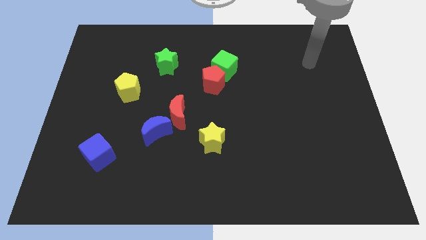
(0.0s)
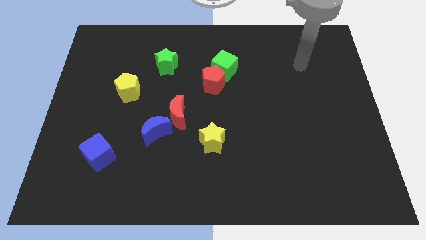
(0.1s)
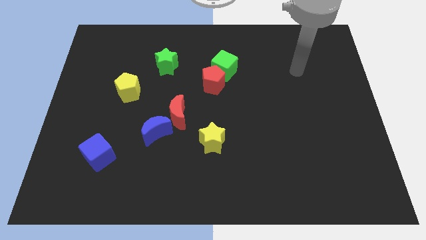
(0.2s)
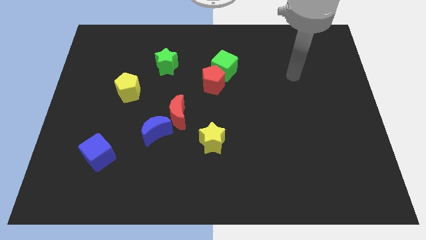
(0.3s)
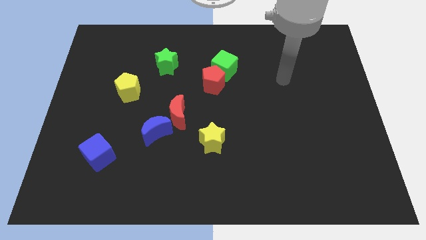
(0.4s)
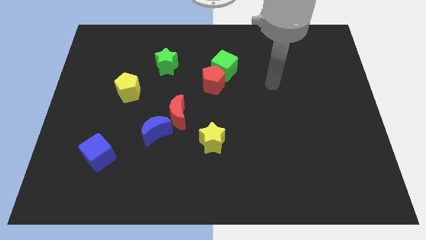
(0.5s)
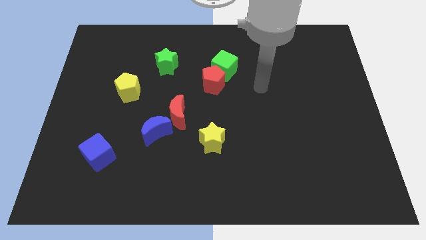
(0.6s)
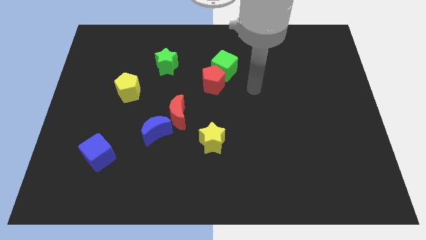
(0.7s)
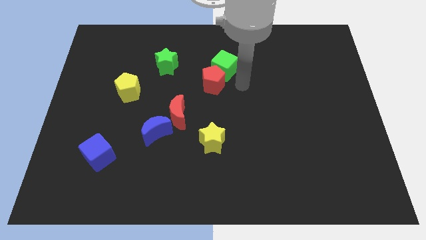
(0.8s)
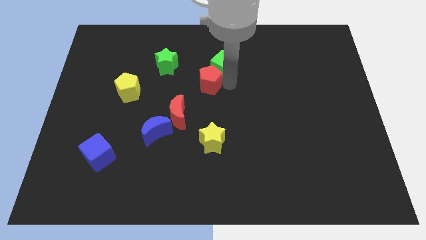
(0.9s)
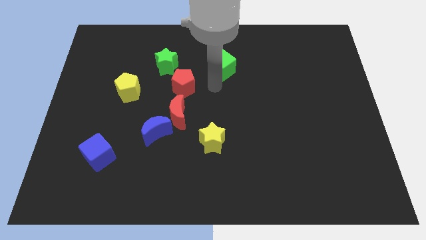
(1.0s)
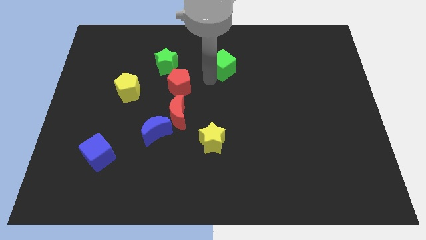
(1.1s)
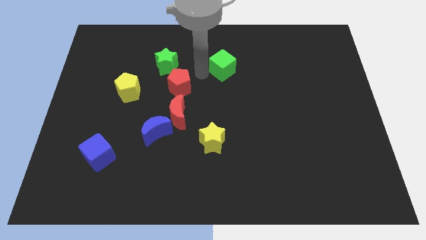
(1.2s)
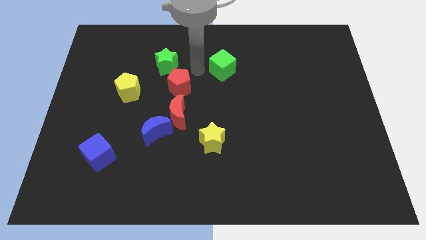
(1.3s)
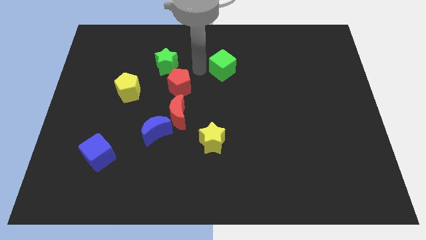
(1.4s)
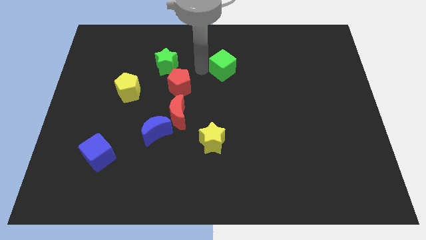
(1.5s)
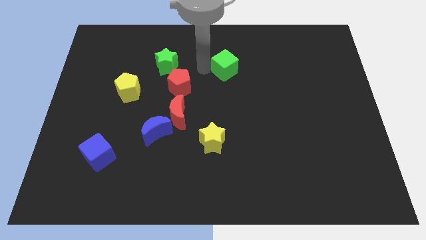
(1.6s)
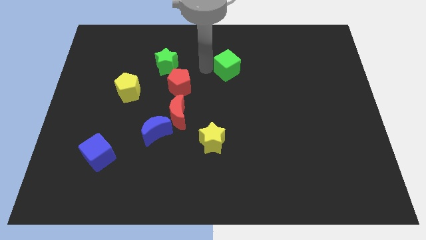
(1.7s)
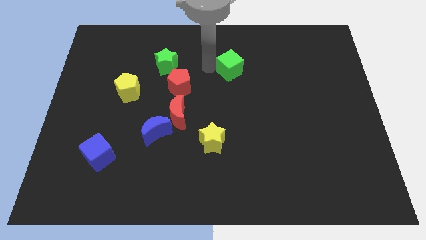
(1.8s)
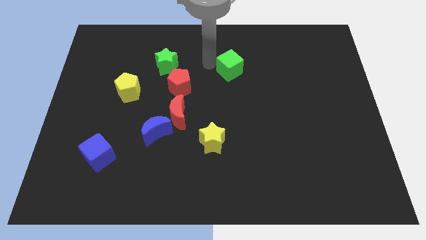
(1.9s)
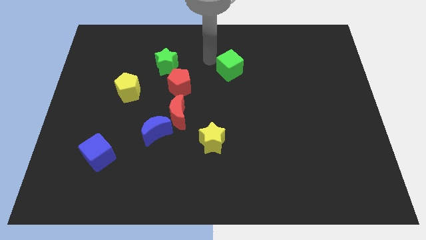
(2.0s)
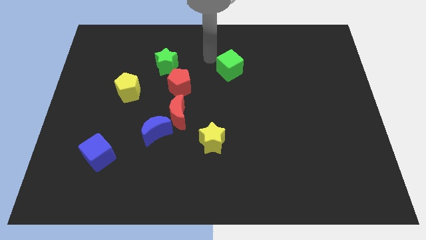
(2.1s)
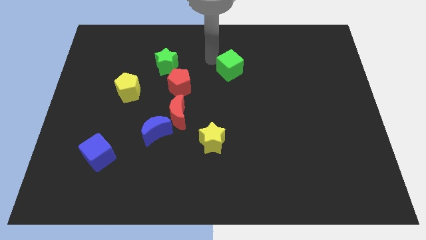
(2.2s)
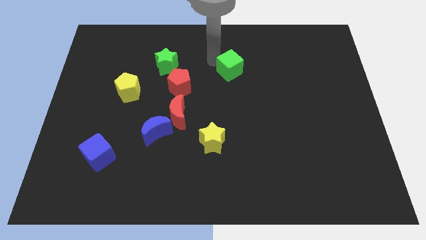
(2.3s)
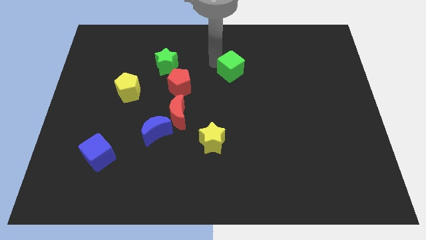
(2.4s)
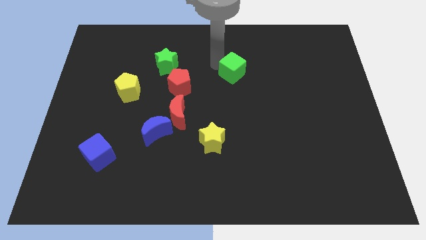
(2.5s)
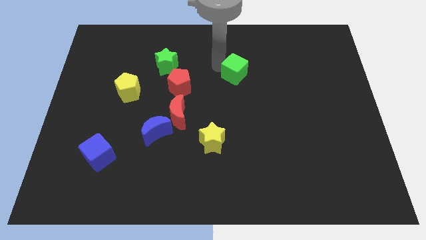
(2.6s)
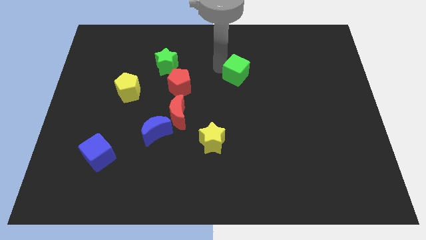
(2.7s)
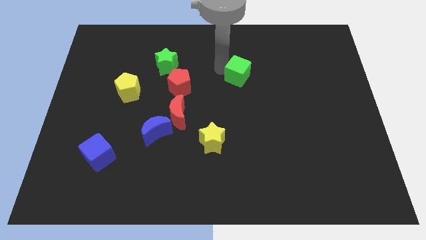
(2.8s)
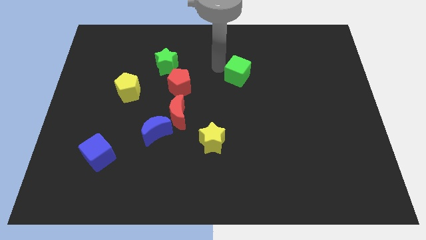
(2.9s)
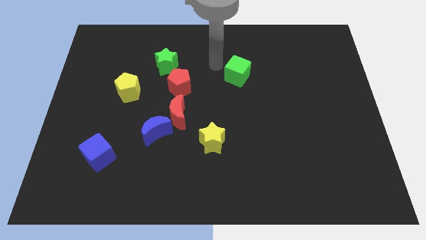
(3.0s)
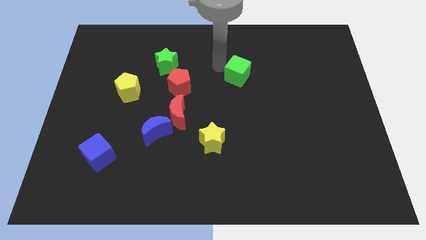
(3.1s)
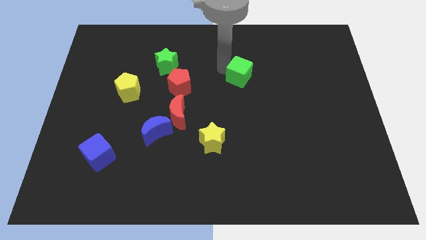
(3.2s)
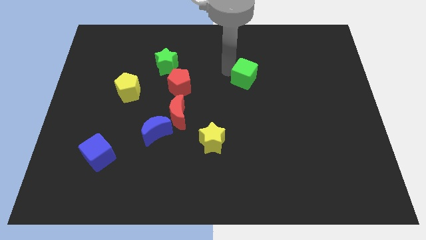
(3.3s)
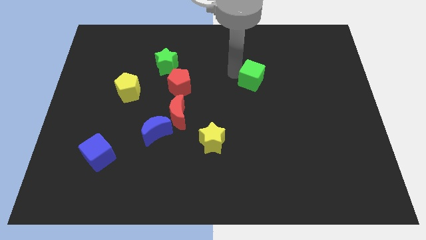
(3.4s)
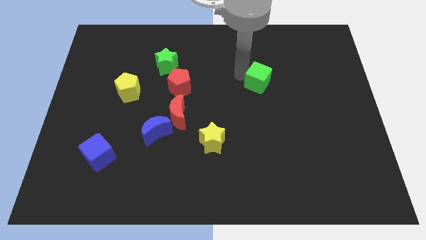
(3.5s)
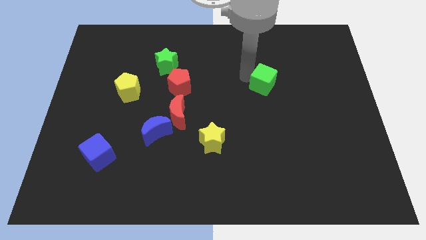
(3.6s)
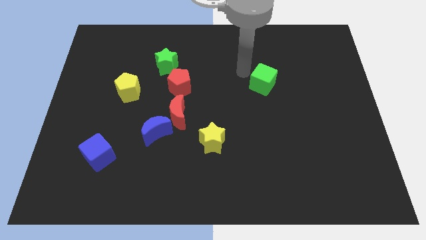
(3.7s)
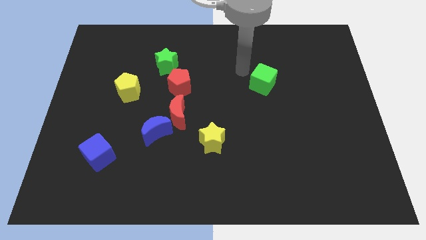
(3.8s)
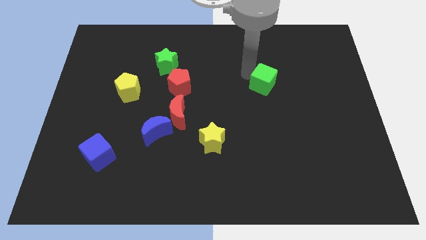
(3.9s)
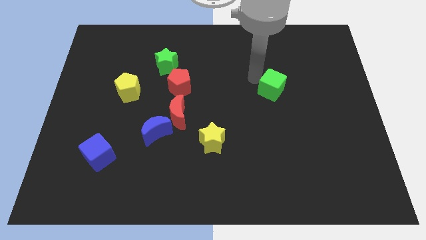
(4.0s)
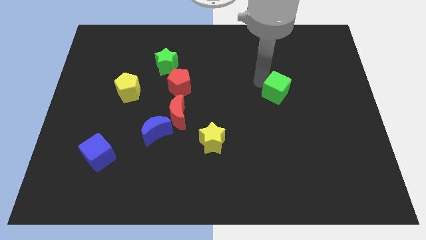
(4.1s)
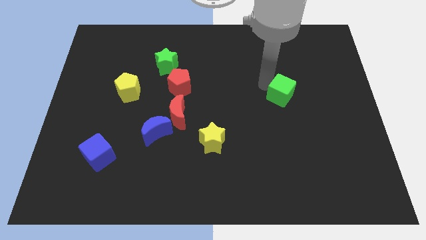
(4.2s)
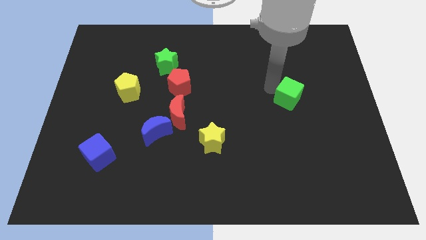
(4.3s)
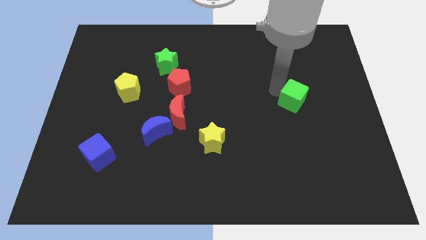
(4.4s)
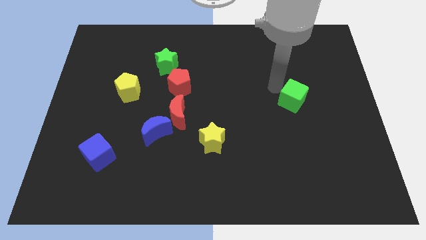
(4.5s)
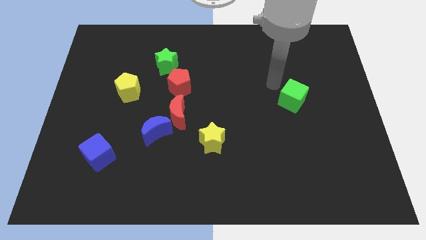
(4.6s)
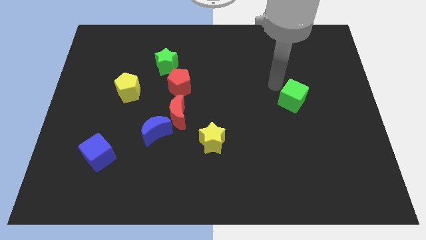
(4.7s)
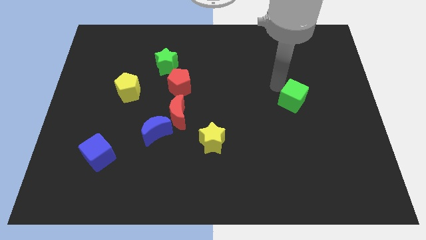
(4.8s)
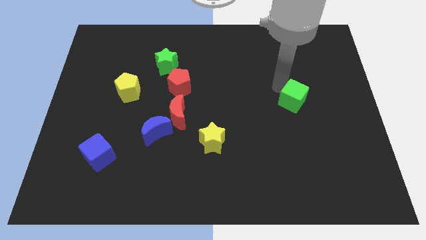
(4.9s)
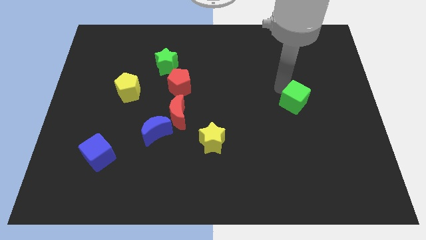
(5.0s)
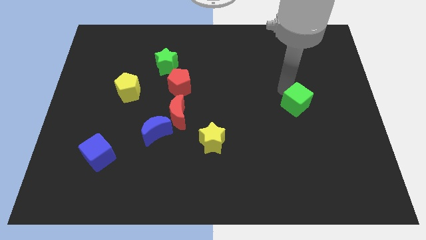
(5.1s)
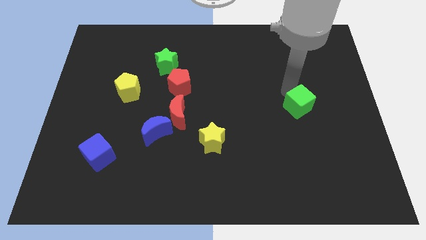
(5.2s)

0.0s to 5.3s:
slide the green cube down and right diagonally

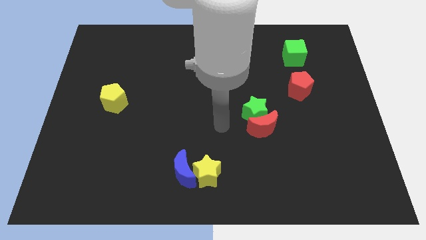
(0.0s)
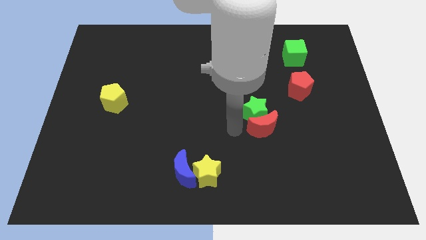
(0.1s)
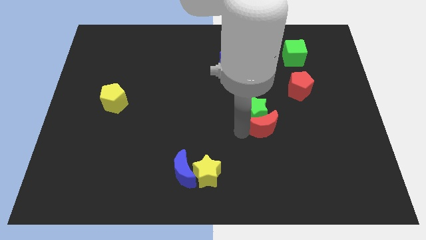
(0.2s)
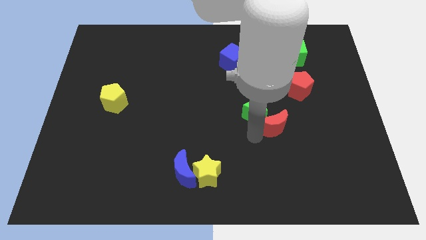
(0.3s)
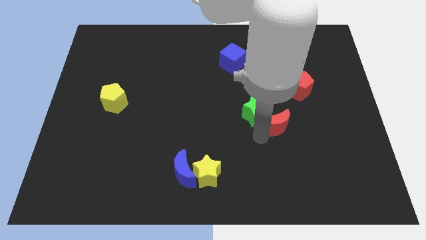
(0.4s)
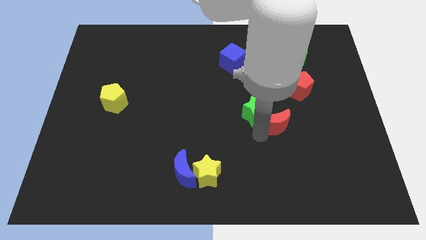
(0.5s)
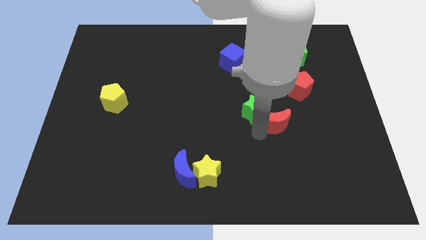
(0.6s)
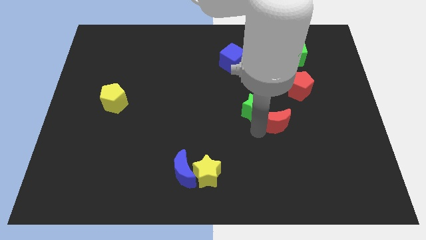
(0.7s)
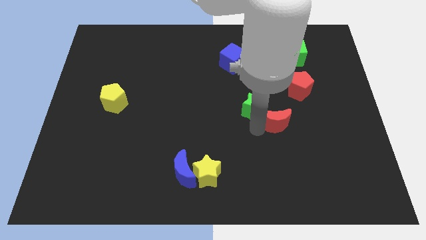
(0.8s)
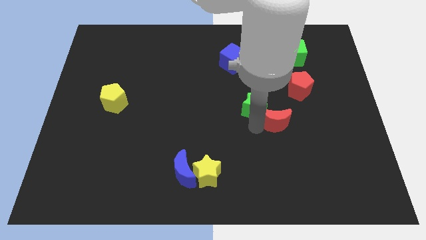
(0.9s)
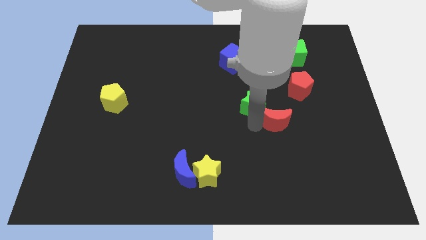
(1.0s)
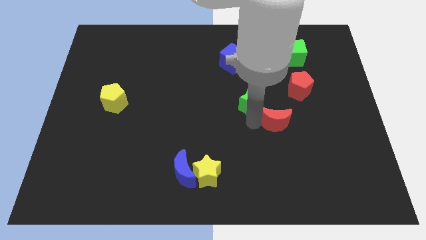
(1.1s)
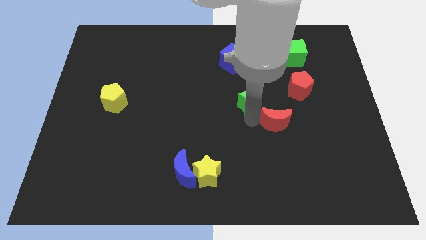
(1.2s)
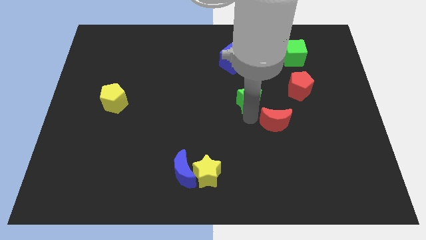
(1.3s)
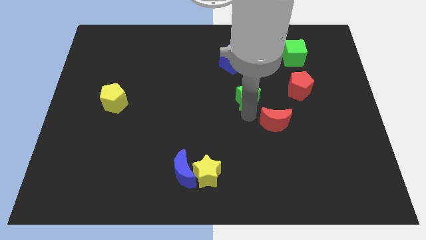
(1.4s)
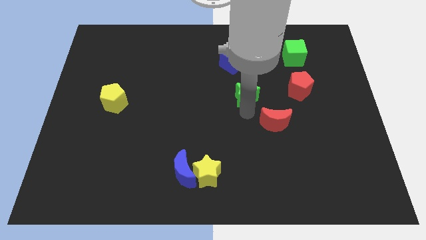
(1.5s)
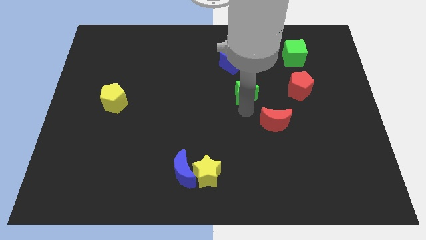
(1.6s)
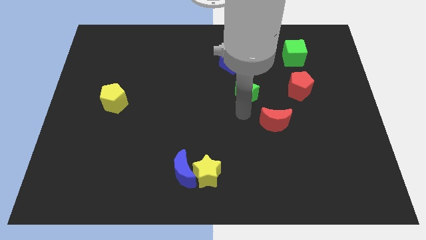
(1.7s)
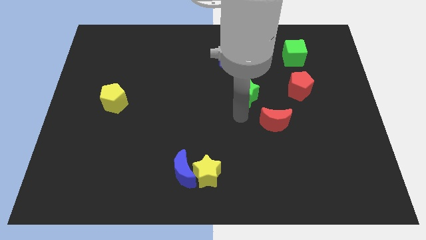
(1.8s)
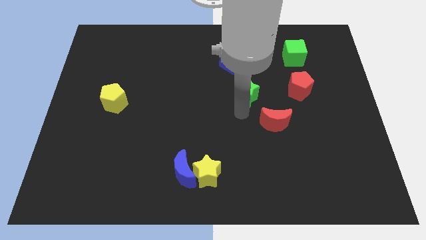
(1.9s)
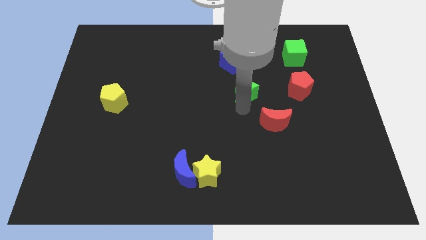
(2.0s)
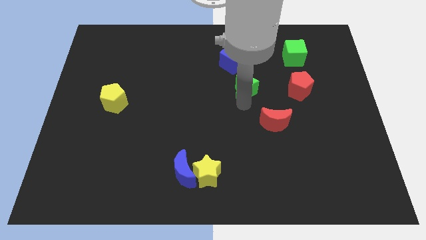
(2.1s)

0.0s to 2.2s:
move the green star up a little

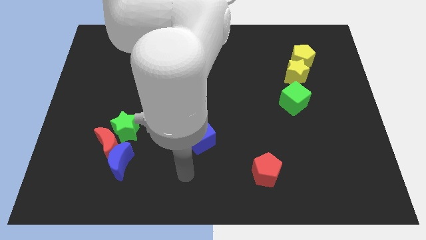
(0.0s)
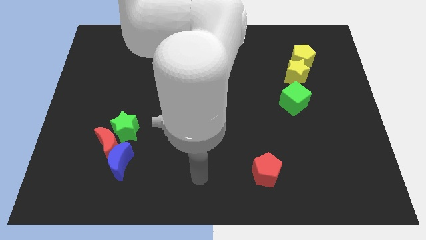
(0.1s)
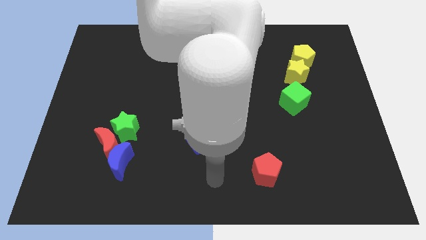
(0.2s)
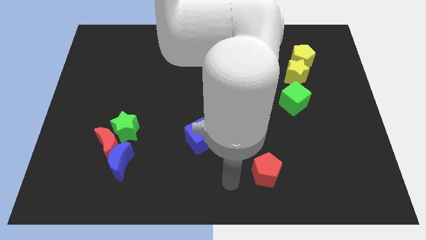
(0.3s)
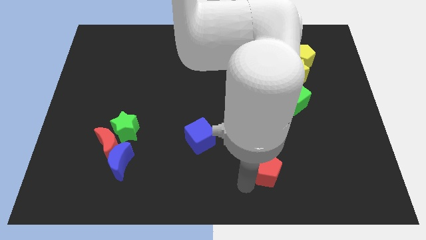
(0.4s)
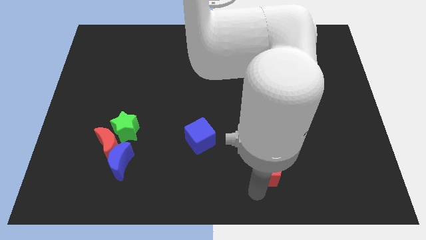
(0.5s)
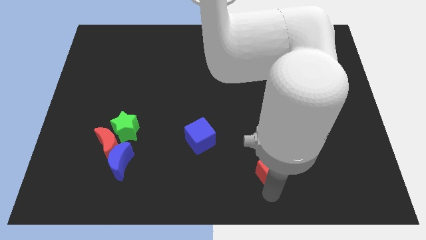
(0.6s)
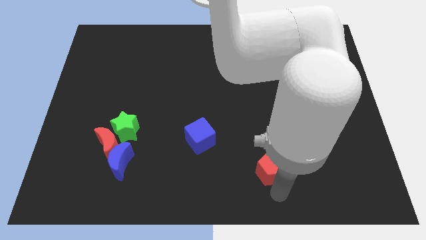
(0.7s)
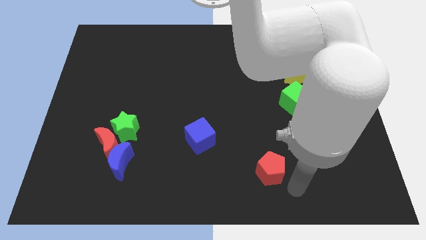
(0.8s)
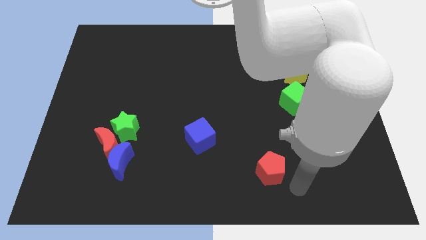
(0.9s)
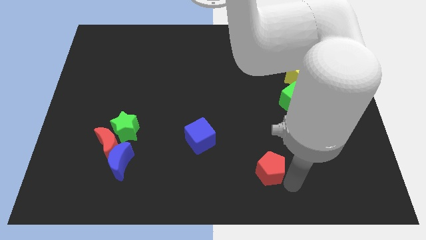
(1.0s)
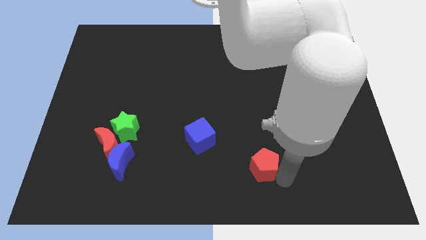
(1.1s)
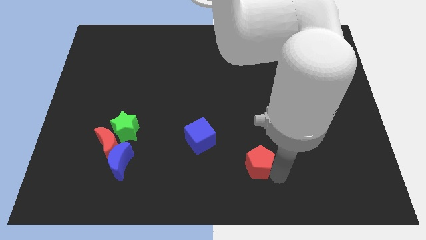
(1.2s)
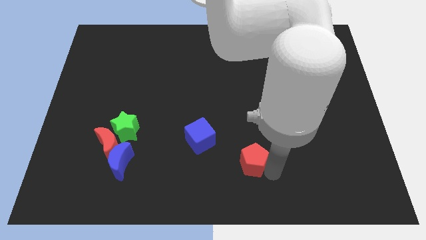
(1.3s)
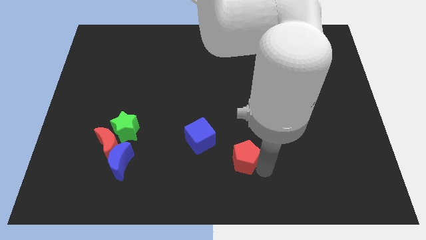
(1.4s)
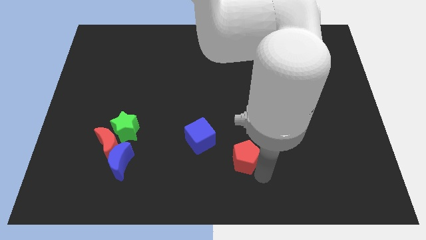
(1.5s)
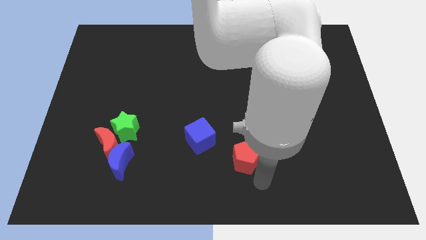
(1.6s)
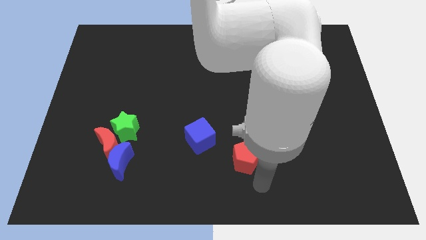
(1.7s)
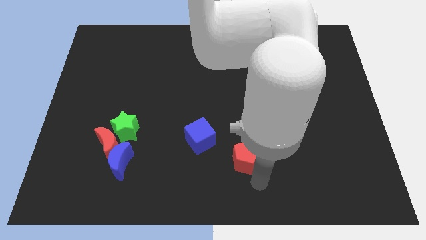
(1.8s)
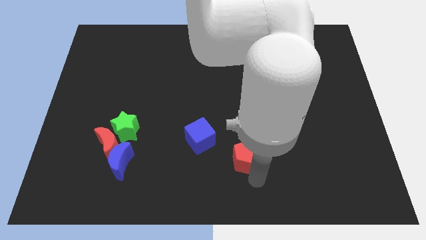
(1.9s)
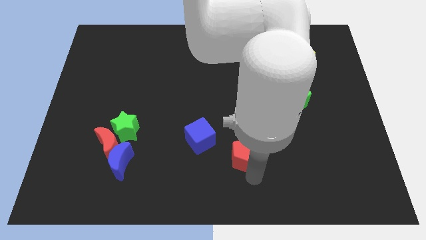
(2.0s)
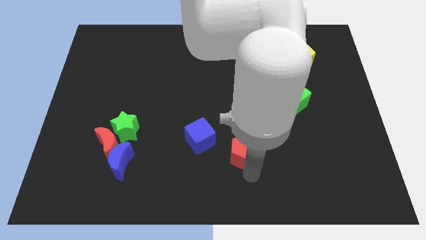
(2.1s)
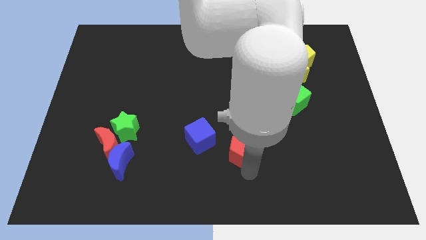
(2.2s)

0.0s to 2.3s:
push the red pentagon a little upwards and to the left
